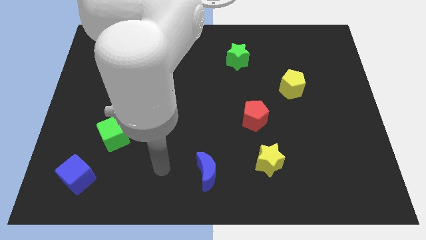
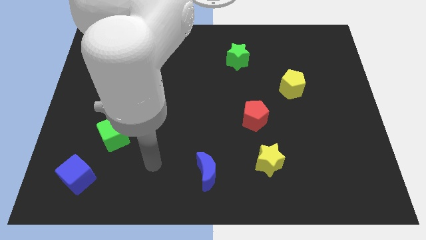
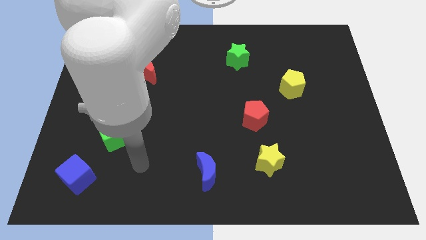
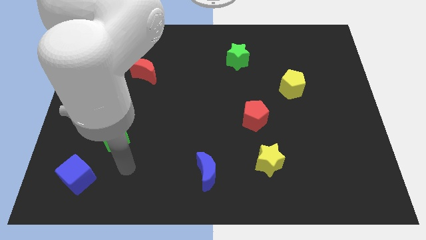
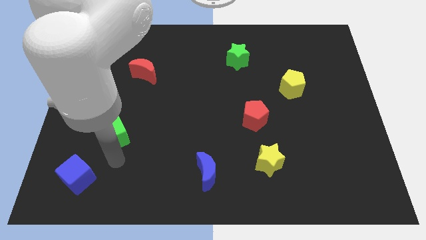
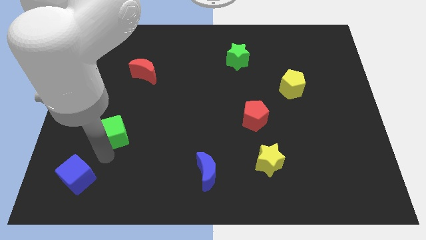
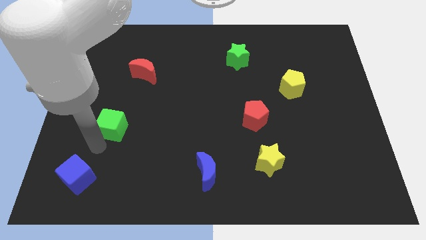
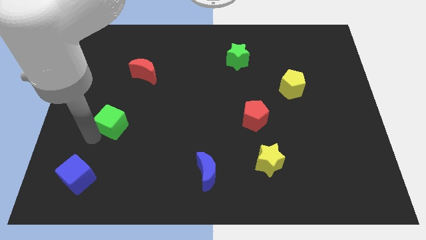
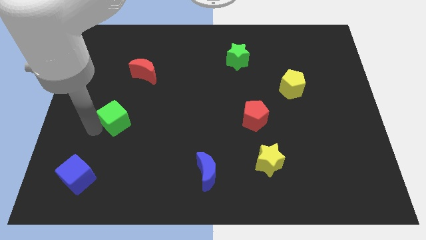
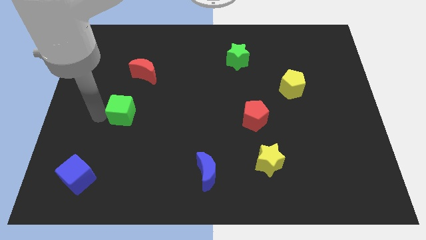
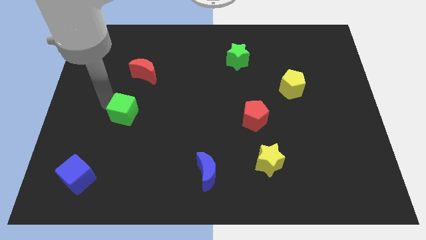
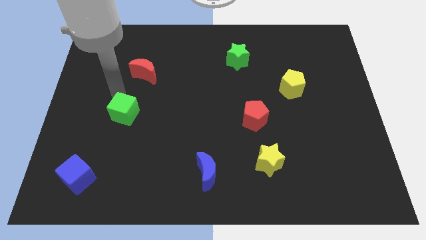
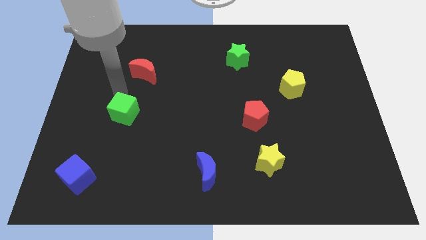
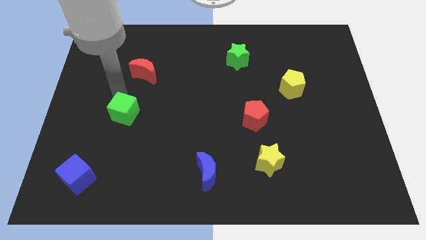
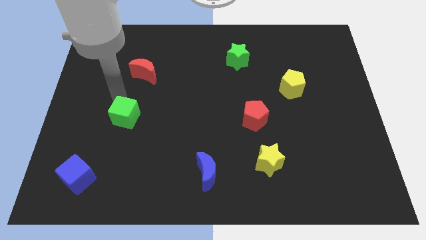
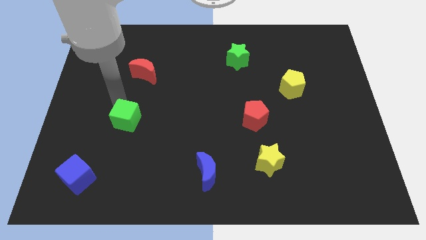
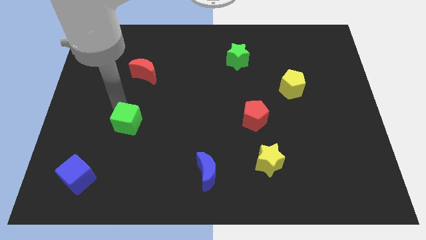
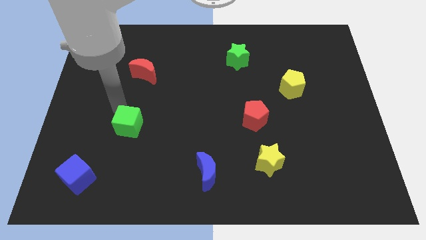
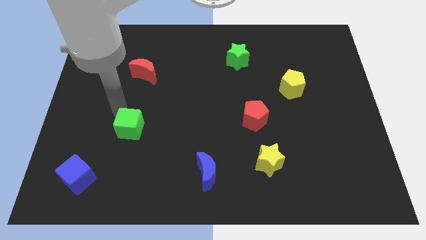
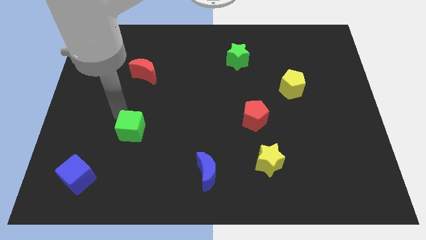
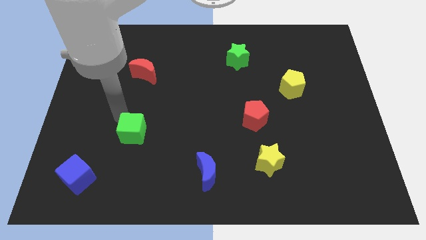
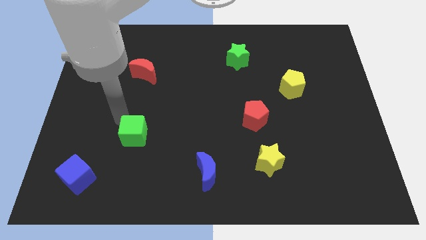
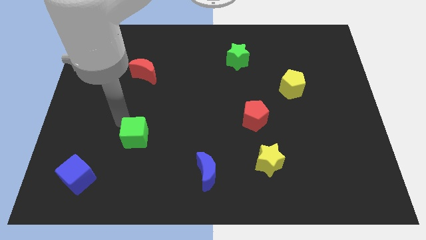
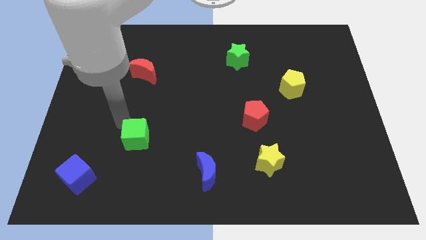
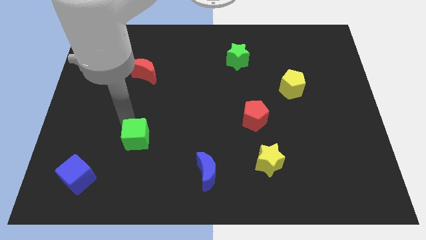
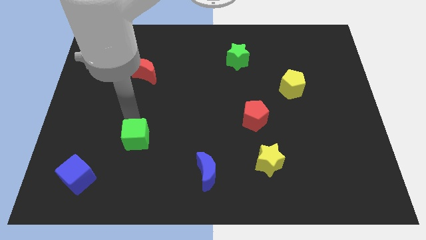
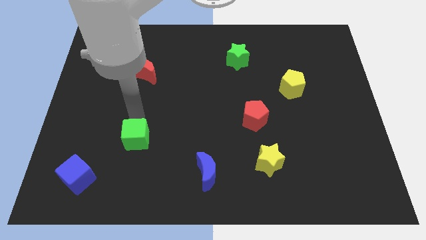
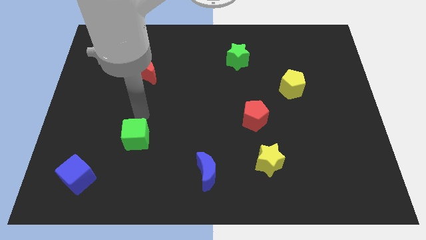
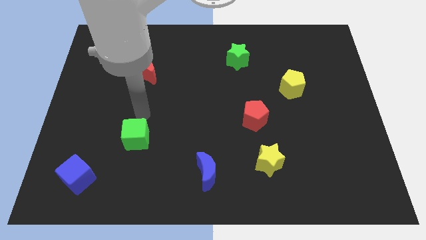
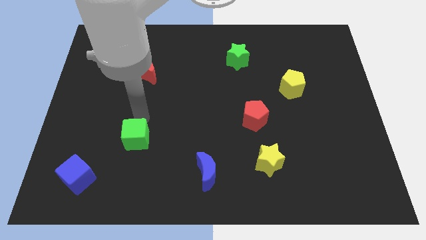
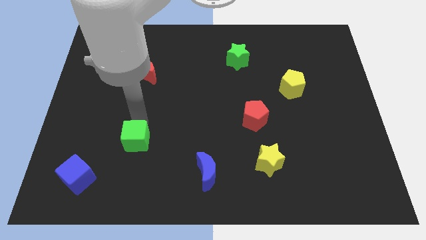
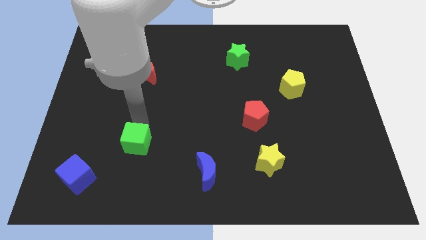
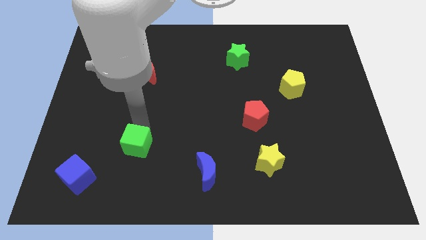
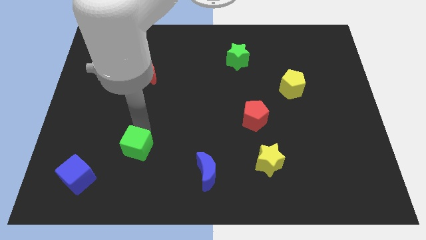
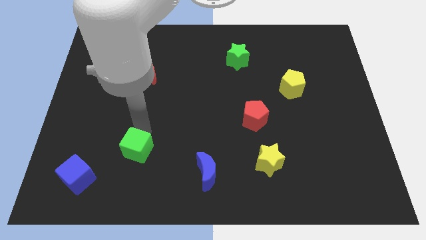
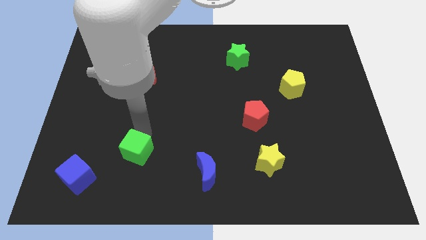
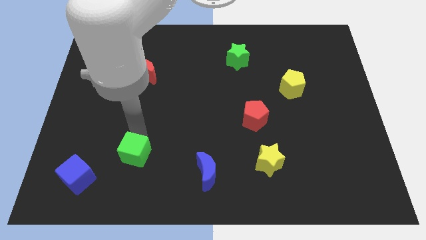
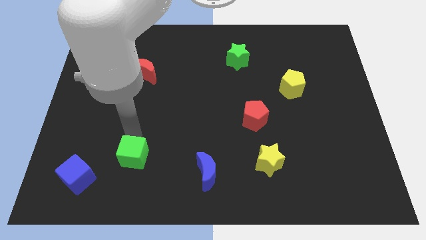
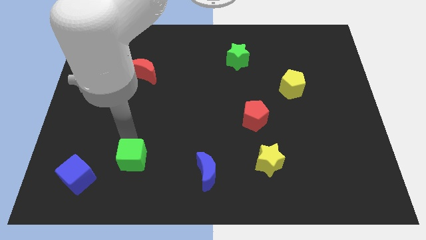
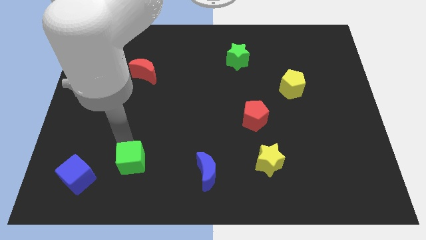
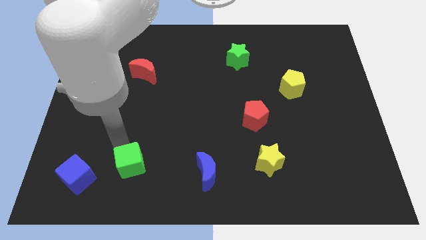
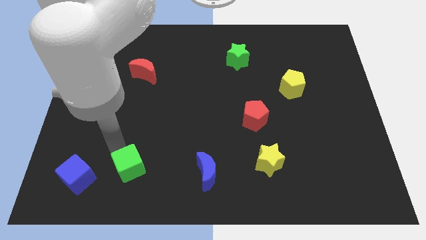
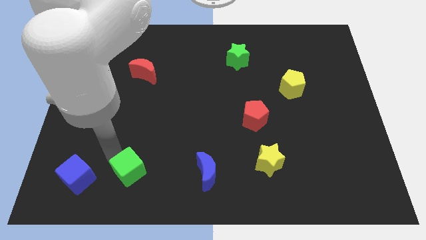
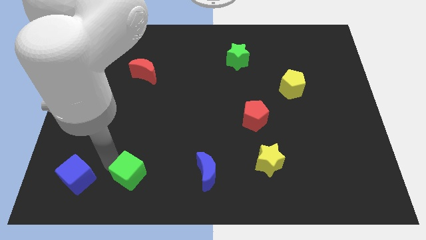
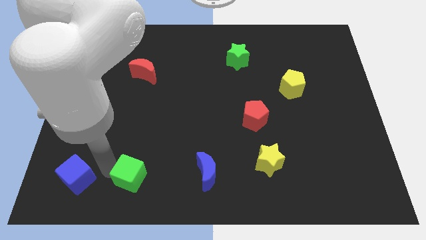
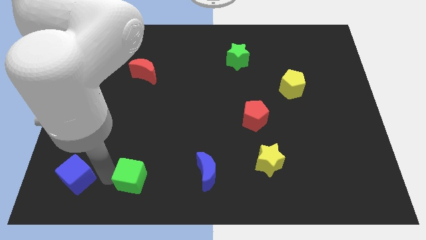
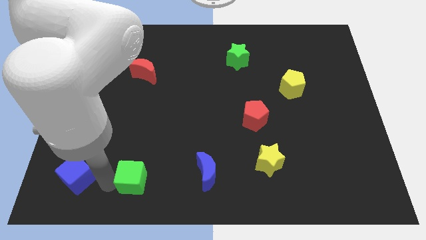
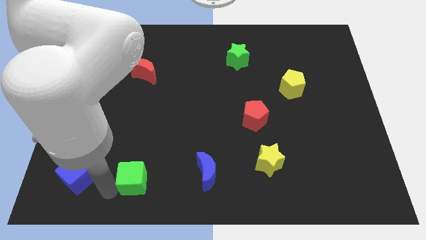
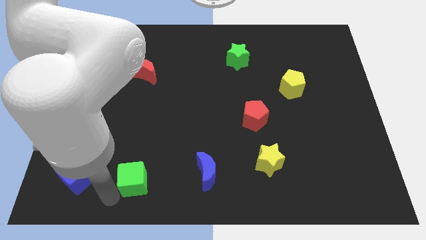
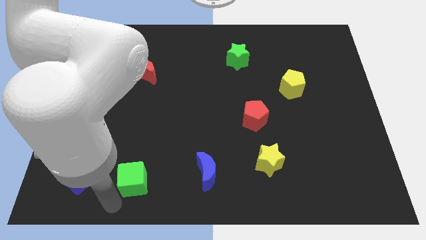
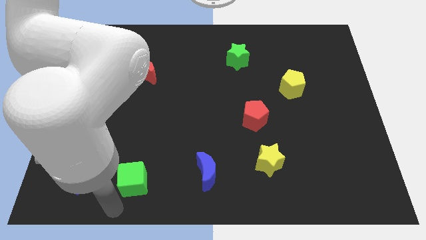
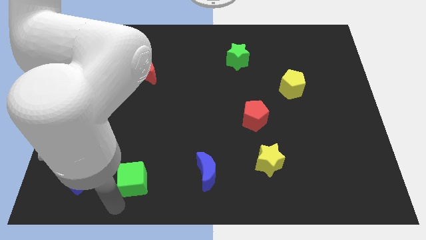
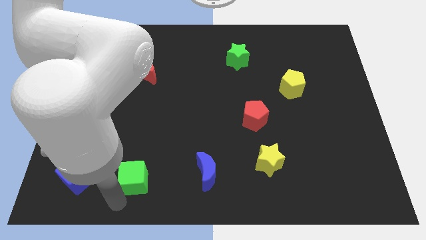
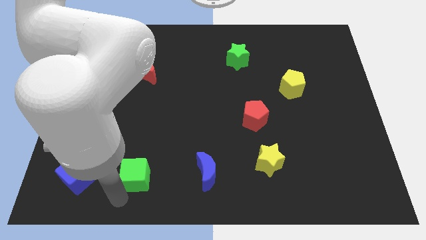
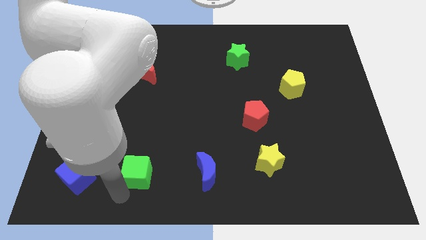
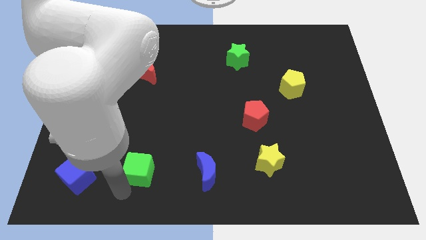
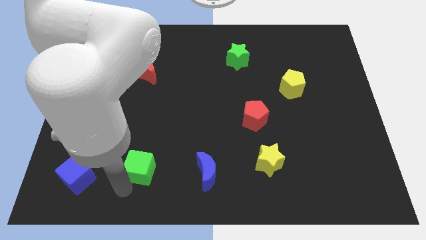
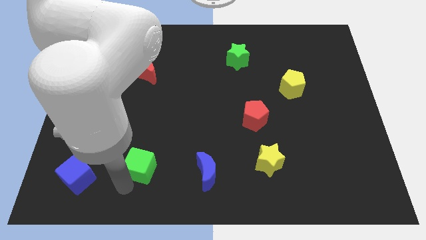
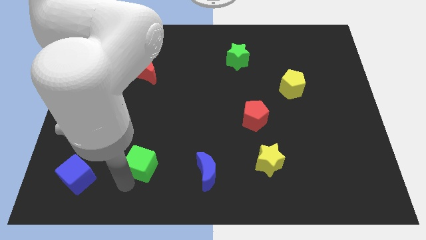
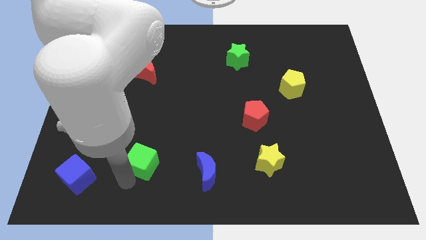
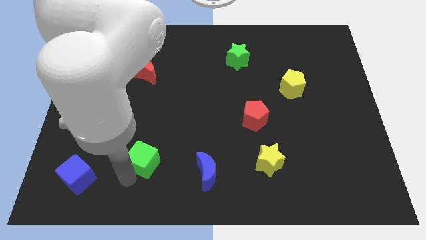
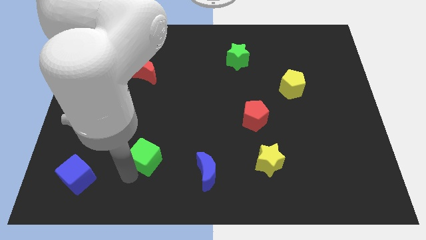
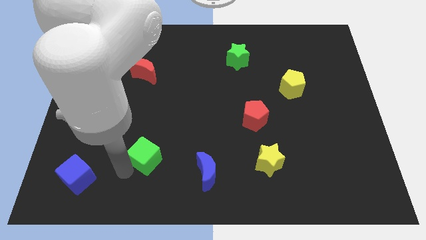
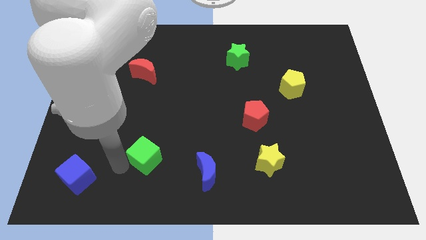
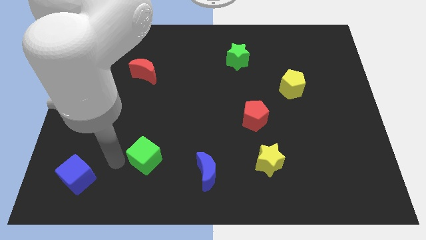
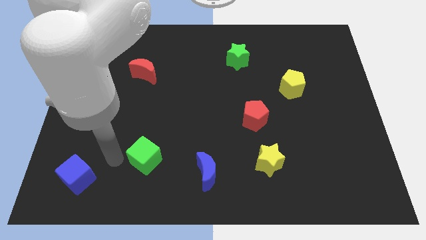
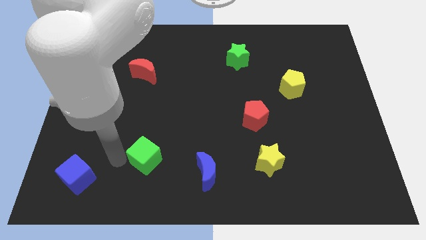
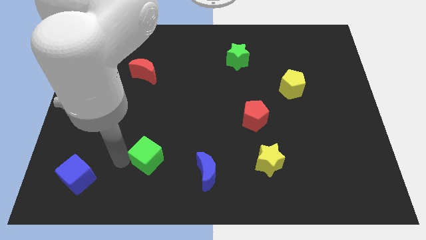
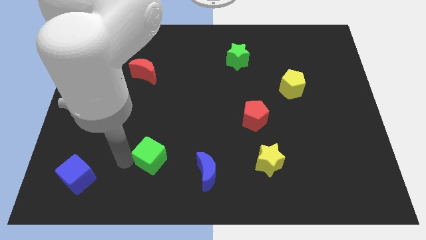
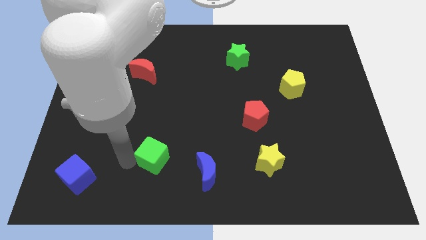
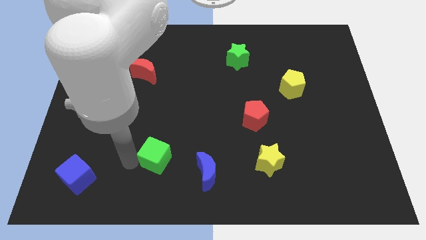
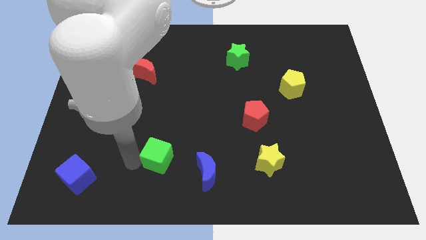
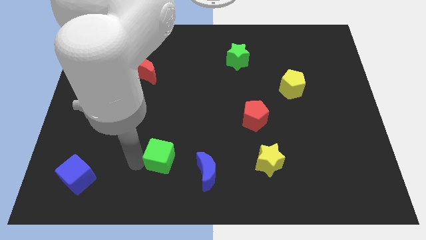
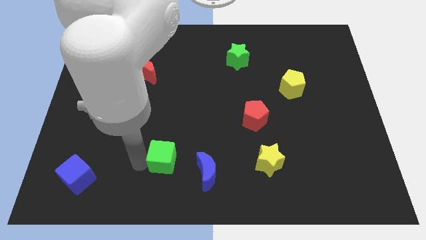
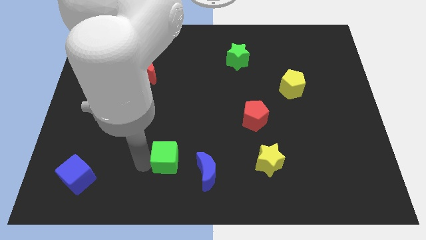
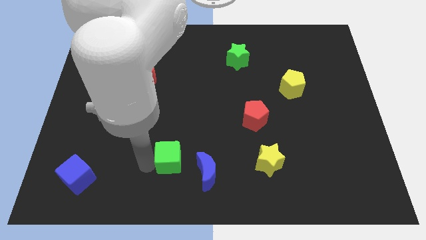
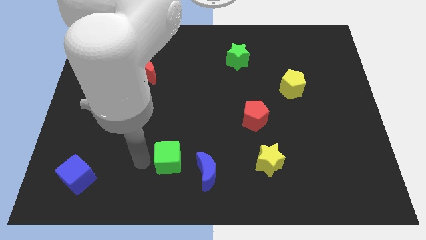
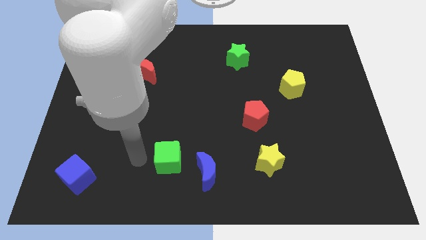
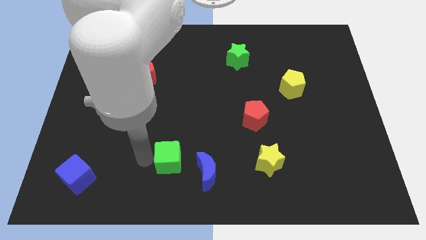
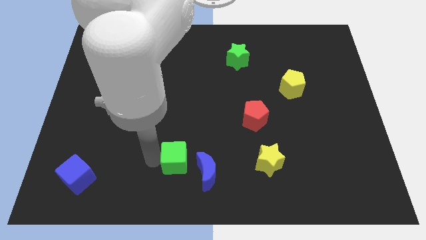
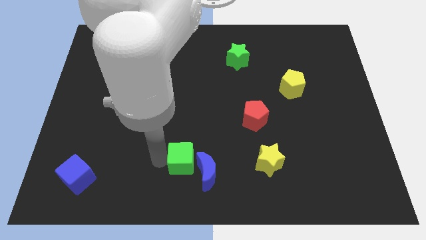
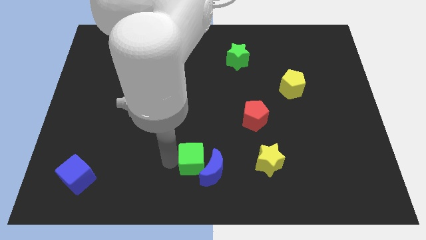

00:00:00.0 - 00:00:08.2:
push the green cube to the left of the yellow star
